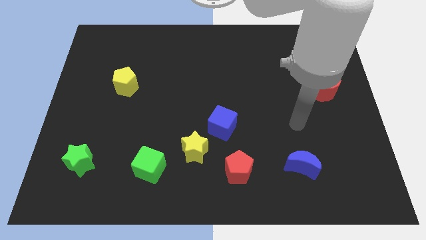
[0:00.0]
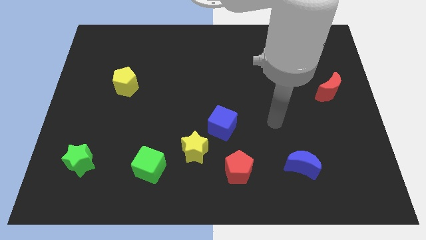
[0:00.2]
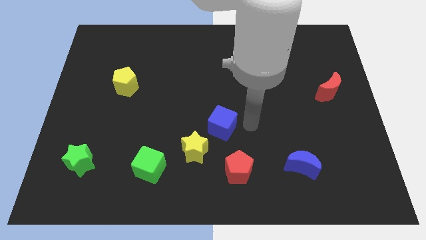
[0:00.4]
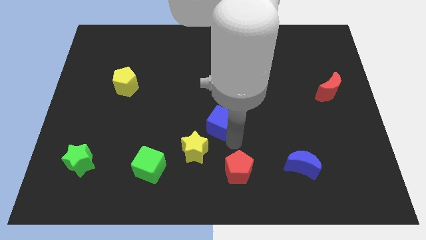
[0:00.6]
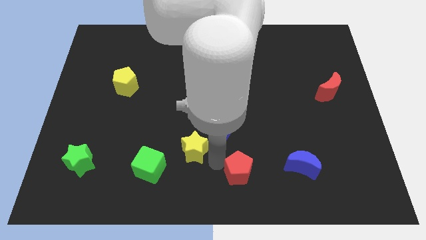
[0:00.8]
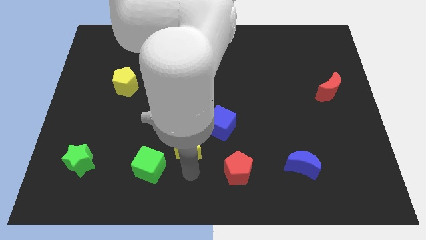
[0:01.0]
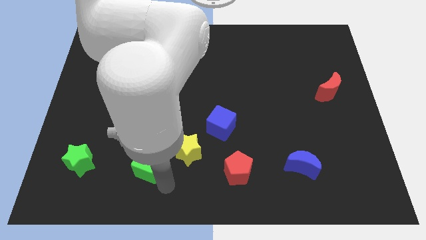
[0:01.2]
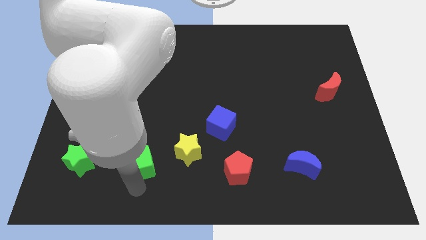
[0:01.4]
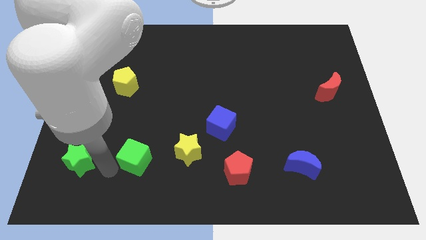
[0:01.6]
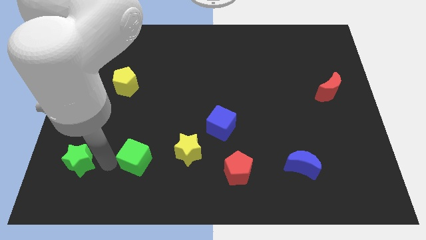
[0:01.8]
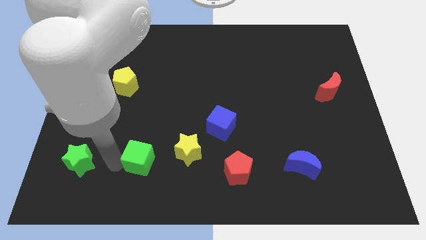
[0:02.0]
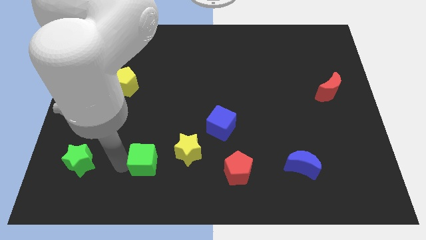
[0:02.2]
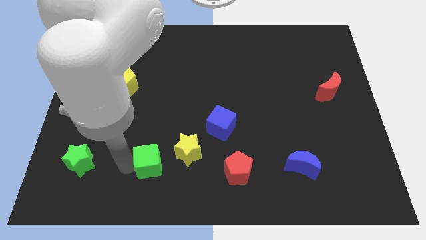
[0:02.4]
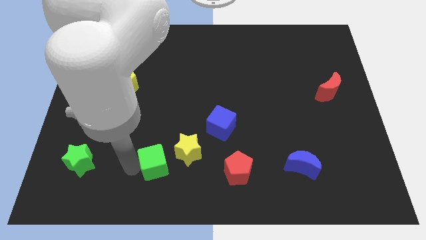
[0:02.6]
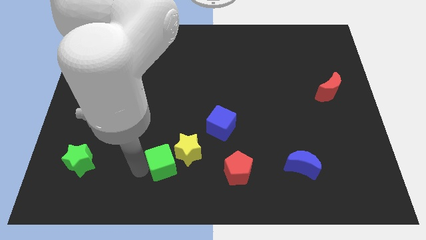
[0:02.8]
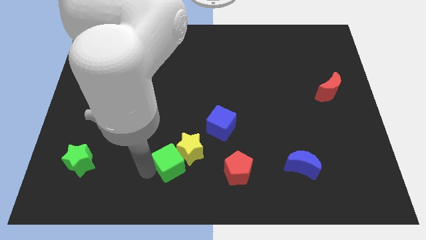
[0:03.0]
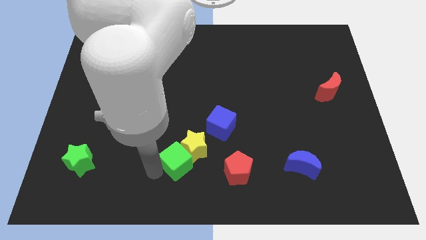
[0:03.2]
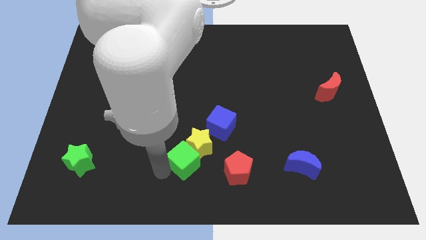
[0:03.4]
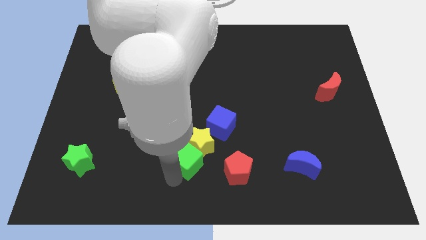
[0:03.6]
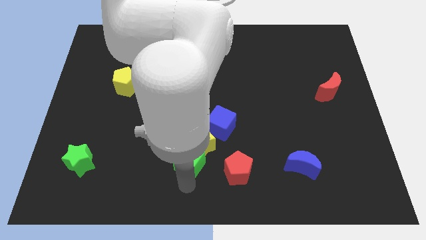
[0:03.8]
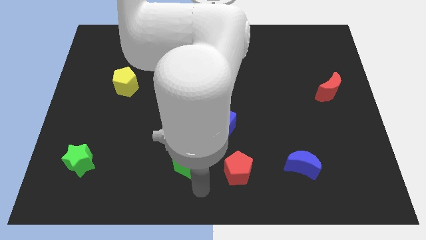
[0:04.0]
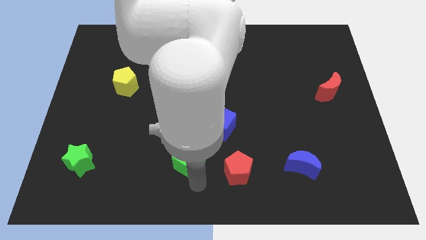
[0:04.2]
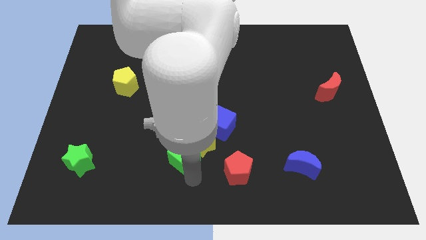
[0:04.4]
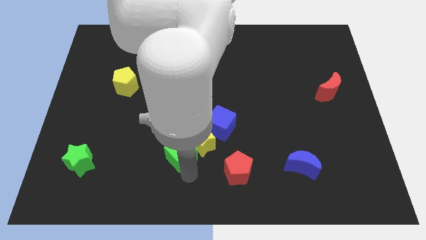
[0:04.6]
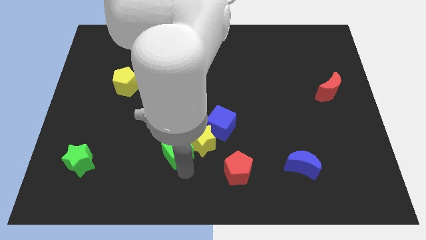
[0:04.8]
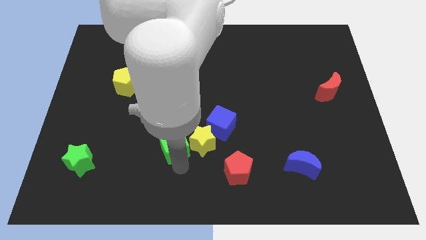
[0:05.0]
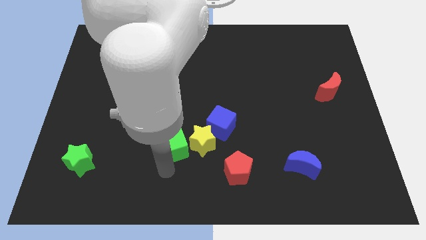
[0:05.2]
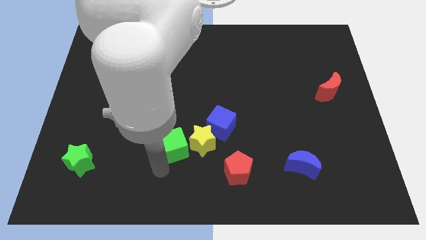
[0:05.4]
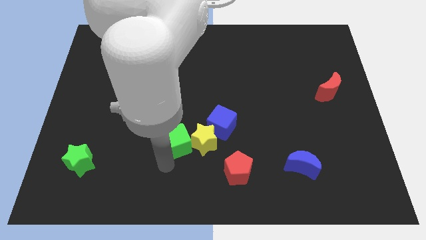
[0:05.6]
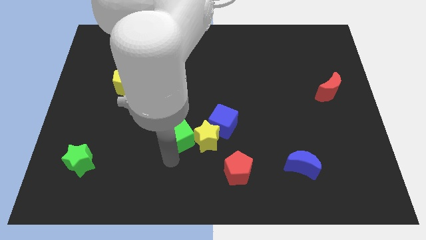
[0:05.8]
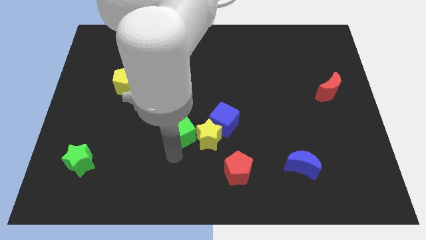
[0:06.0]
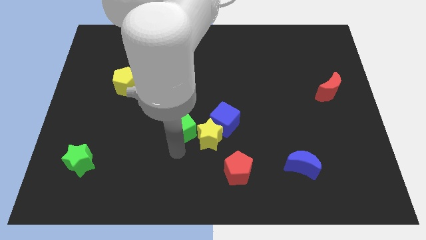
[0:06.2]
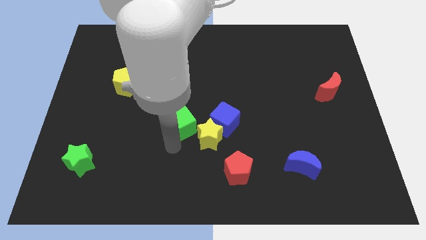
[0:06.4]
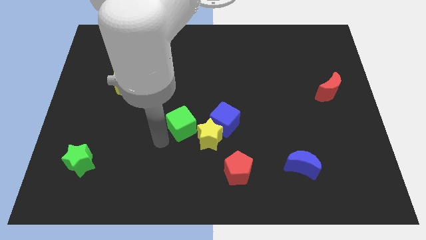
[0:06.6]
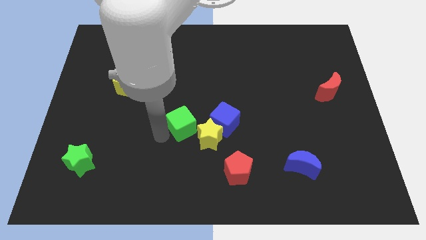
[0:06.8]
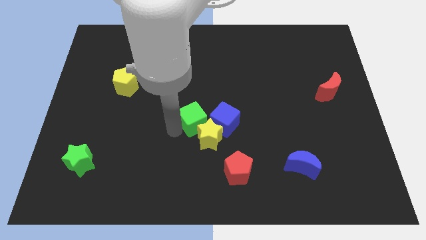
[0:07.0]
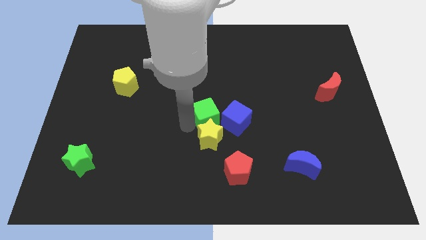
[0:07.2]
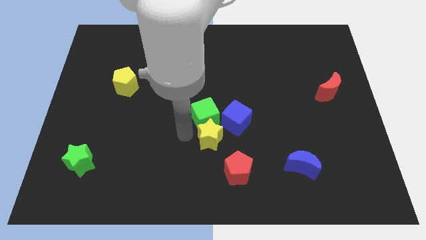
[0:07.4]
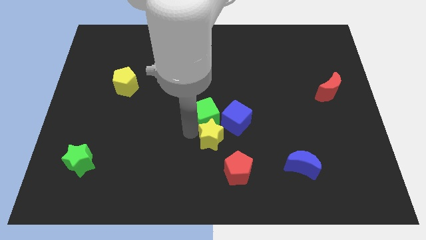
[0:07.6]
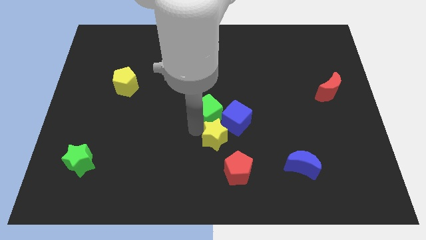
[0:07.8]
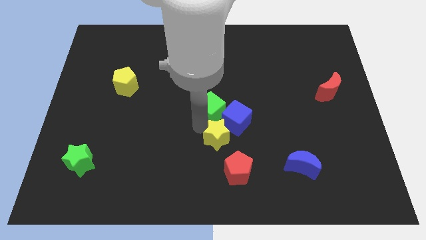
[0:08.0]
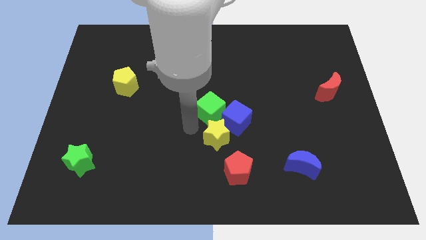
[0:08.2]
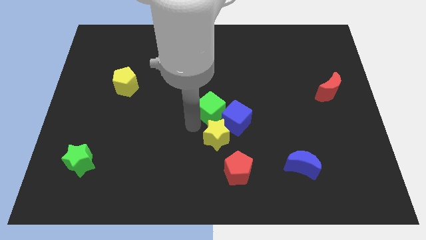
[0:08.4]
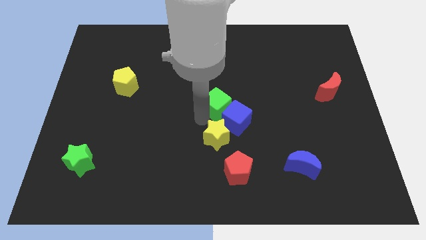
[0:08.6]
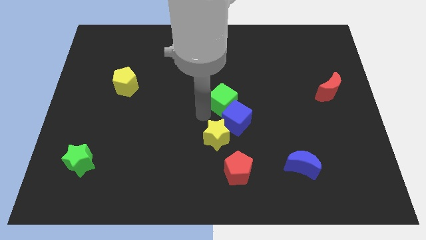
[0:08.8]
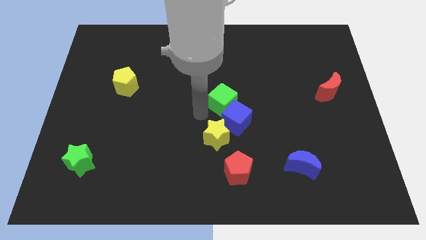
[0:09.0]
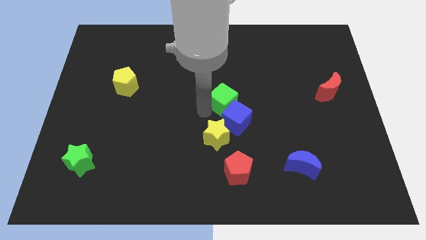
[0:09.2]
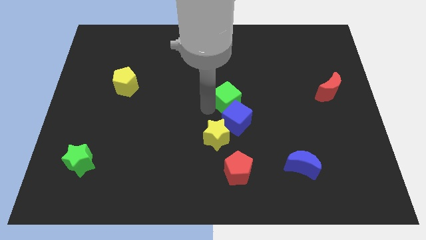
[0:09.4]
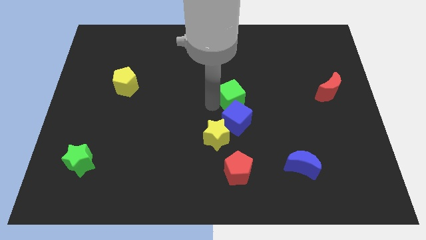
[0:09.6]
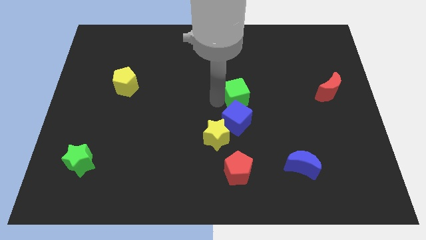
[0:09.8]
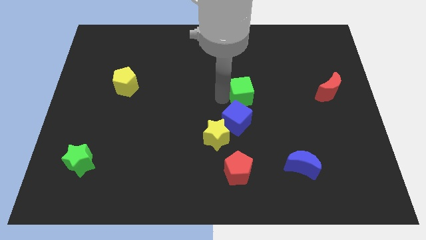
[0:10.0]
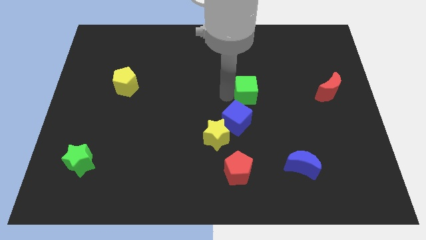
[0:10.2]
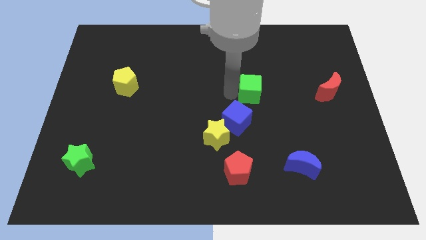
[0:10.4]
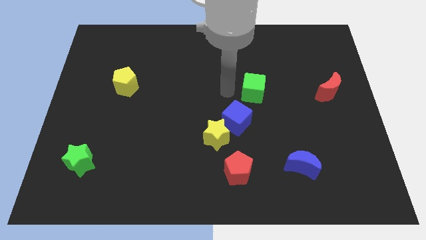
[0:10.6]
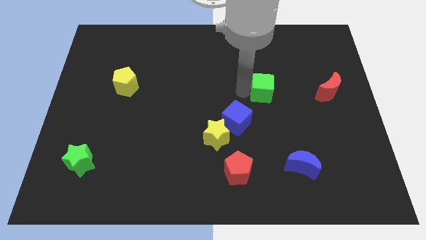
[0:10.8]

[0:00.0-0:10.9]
push the green cube just left of the red moon
